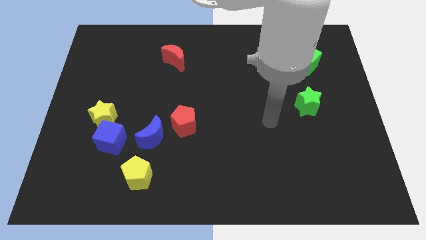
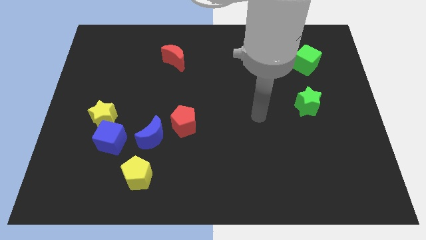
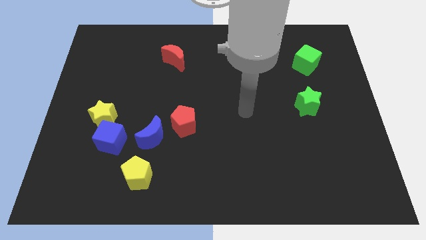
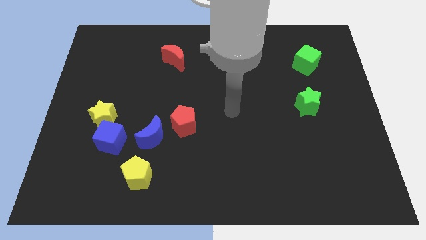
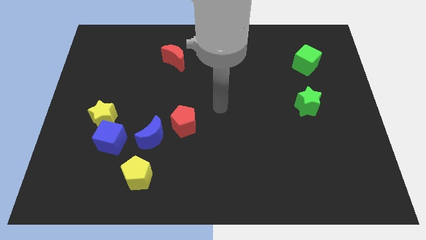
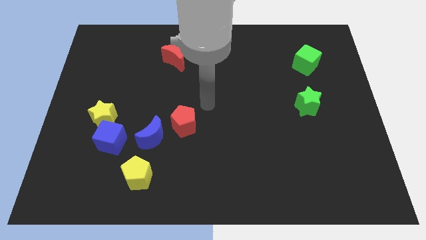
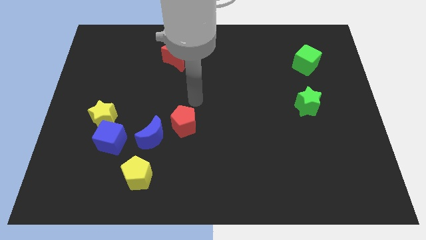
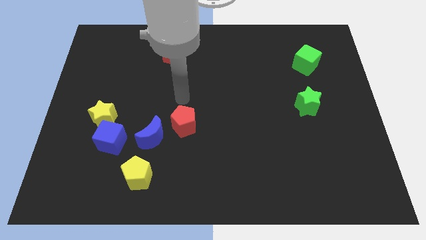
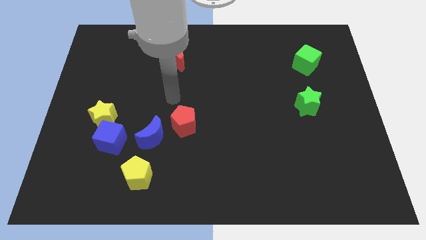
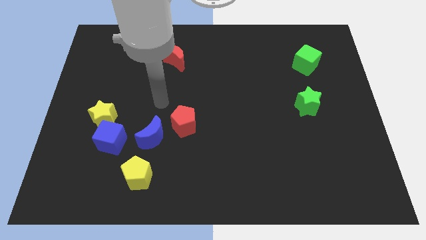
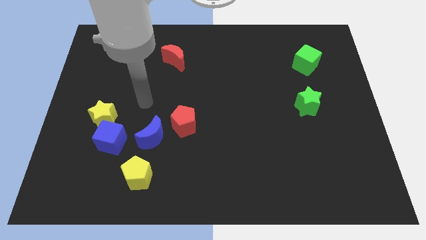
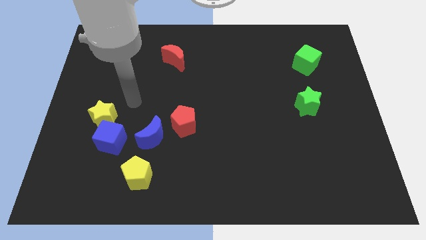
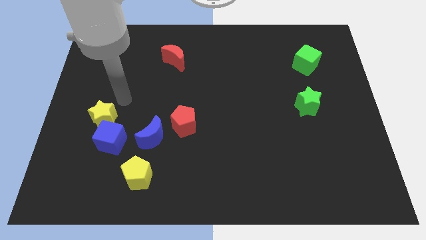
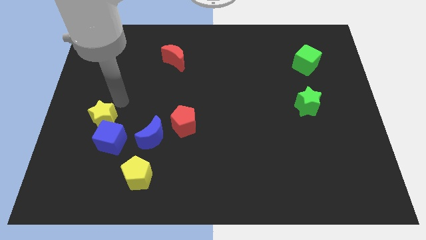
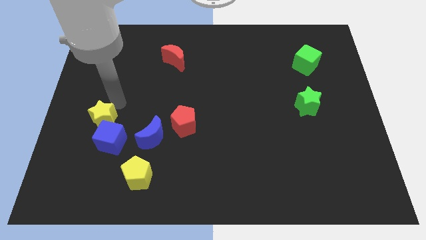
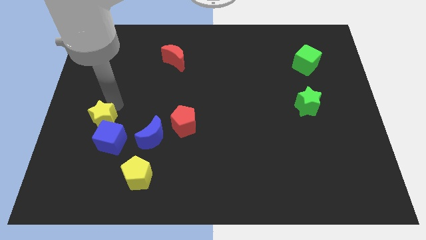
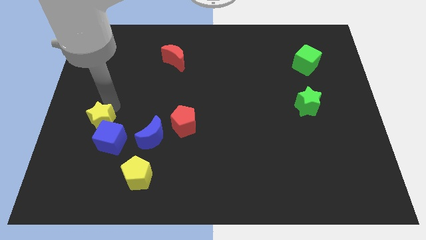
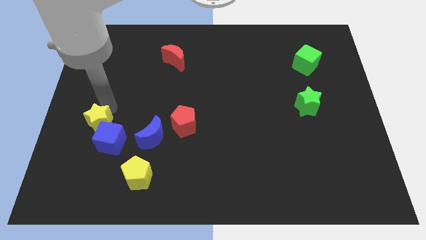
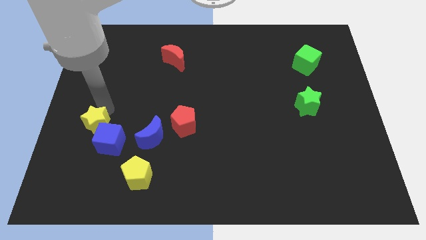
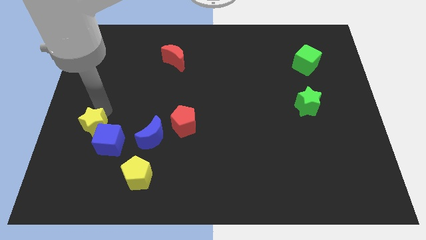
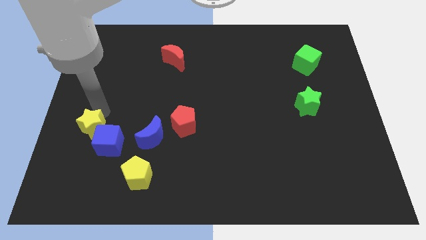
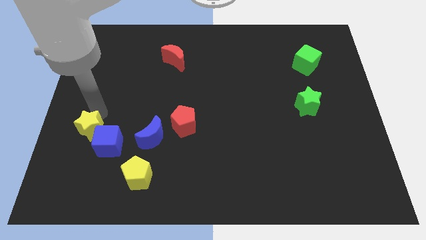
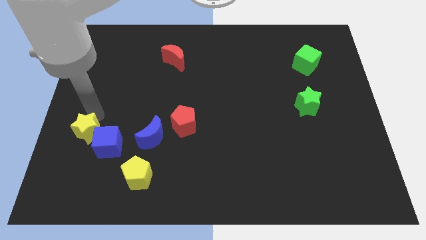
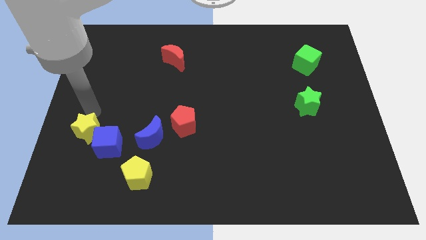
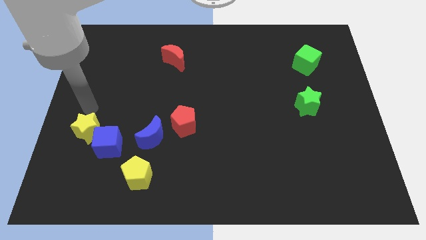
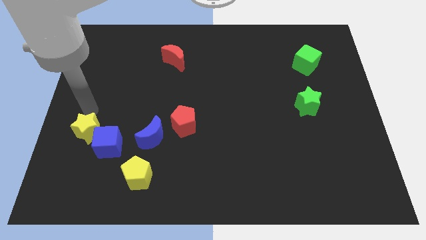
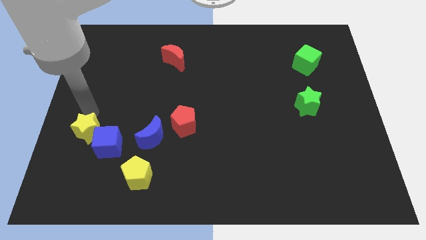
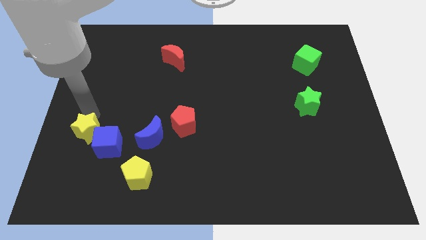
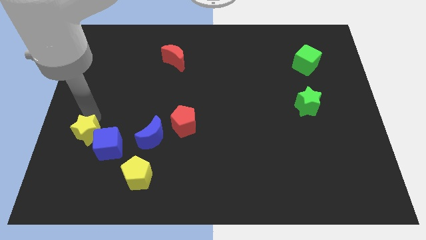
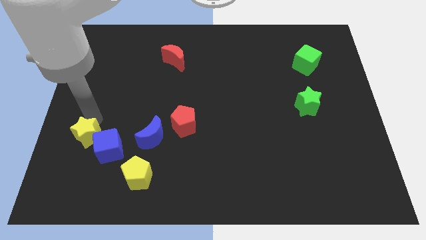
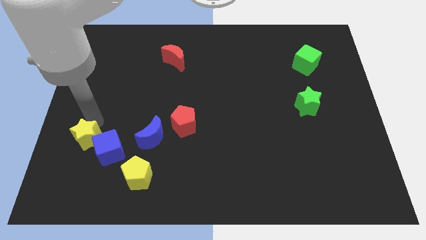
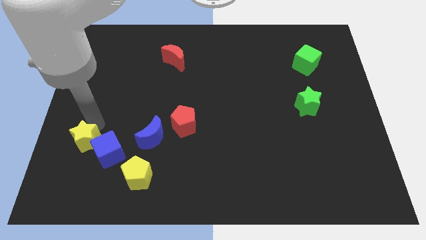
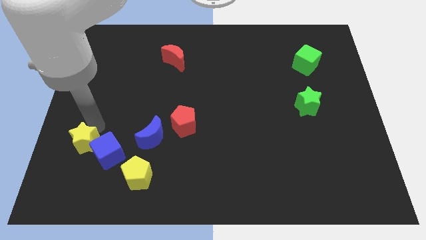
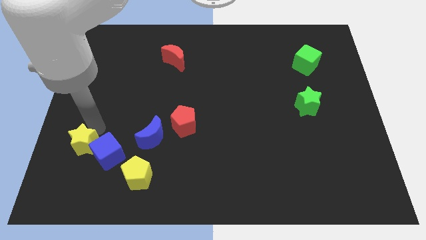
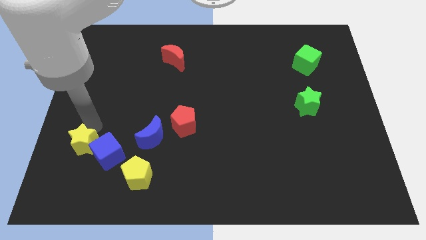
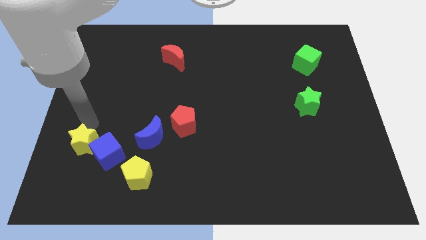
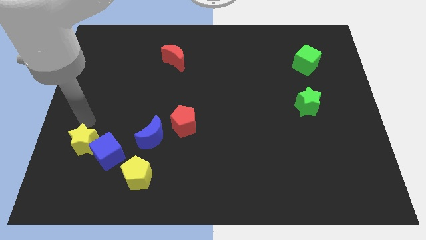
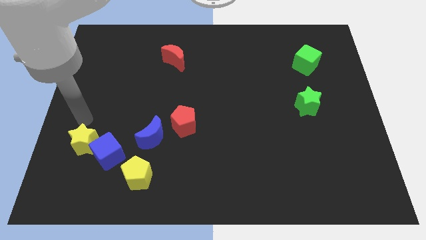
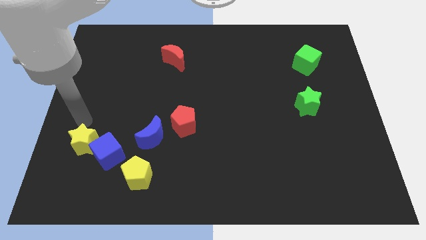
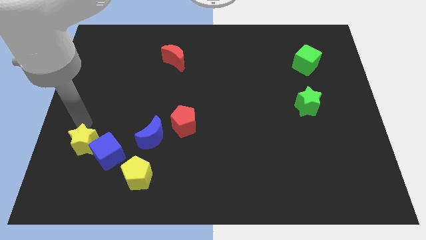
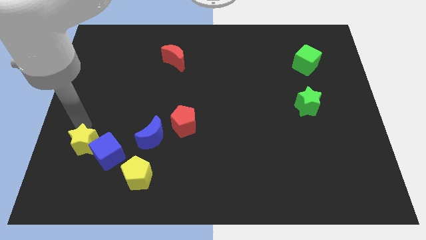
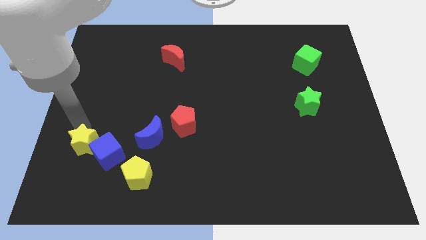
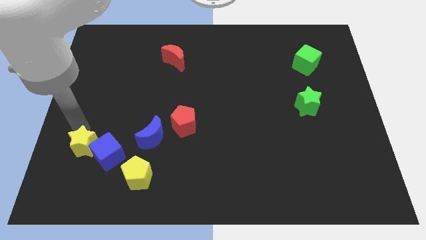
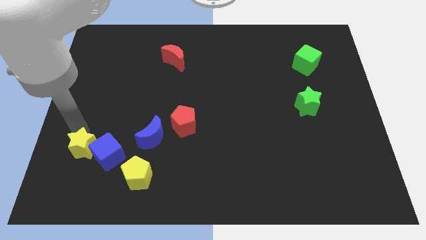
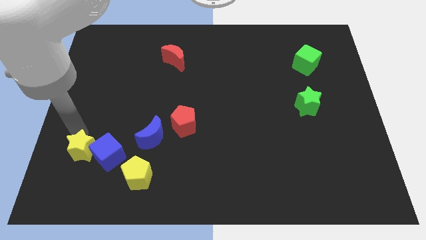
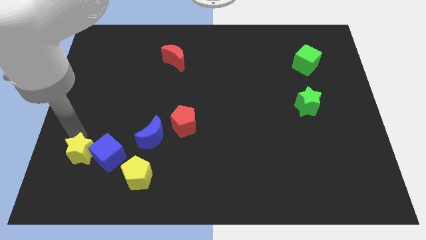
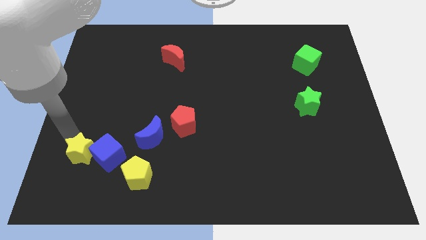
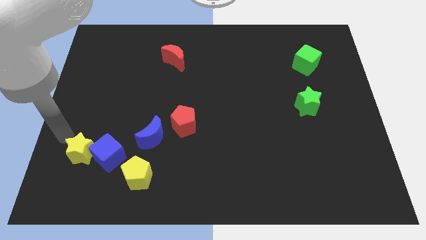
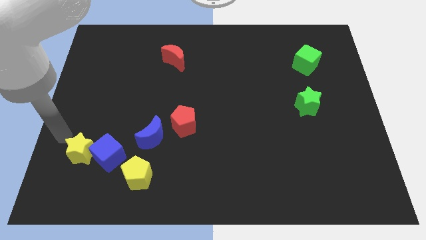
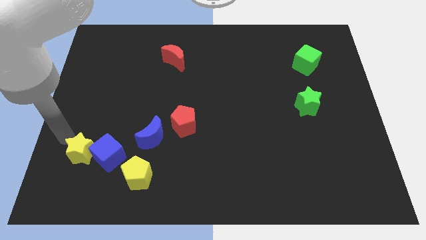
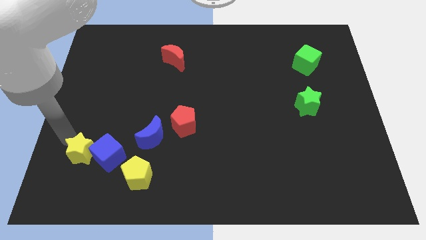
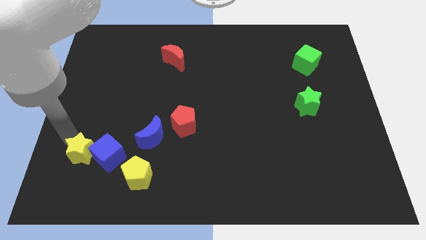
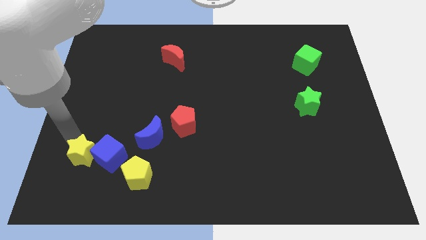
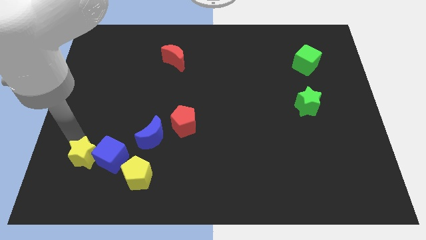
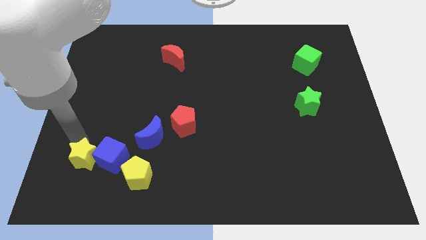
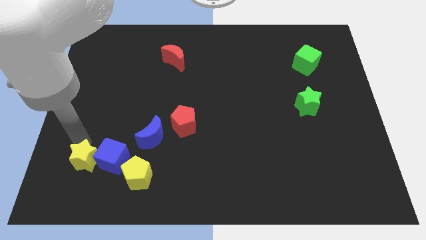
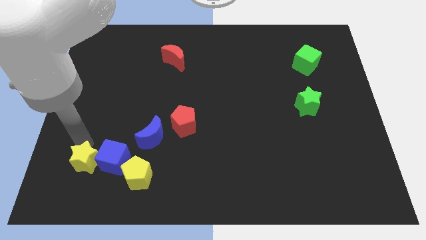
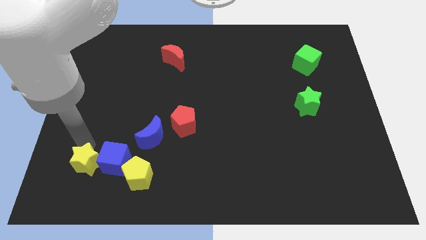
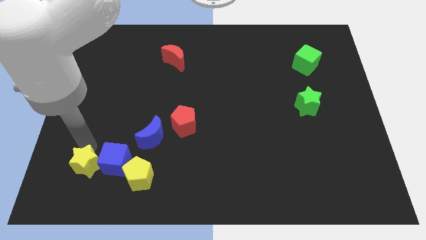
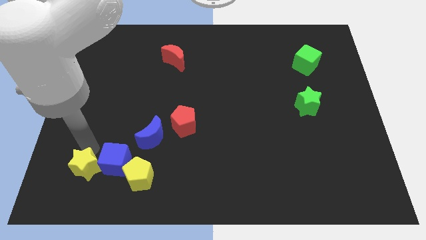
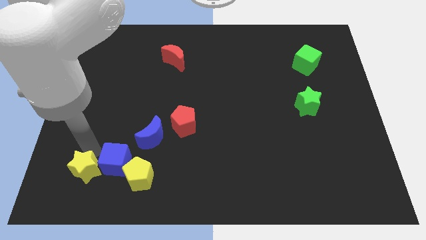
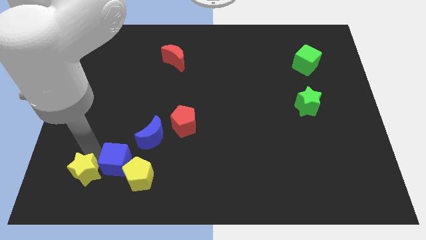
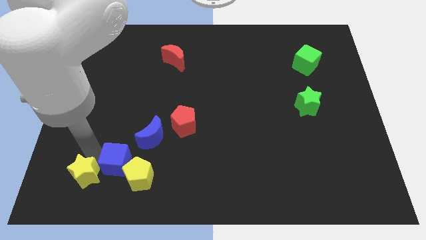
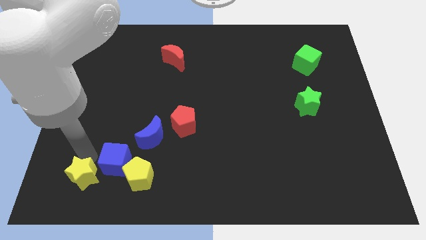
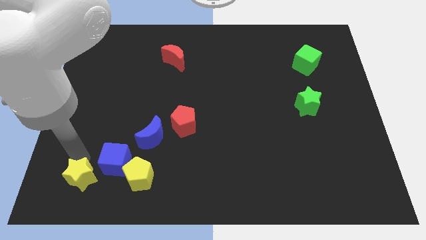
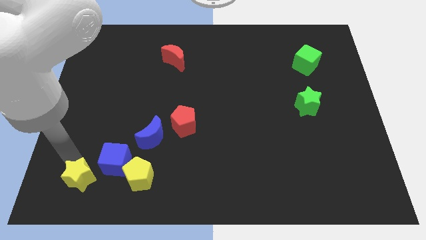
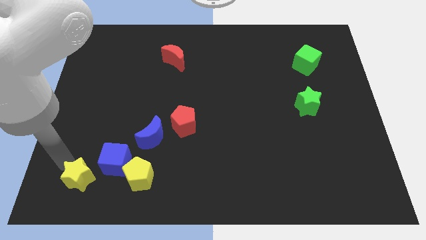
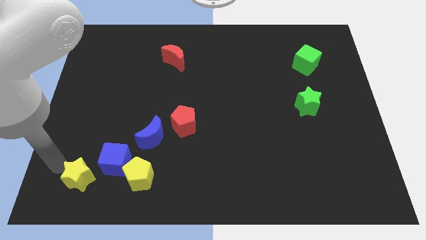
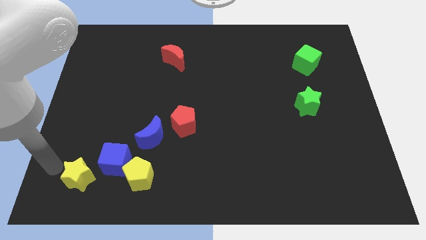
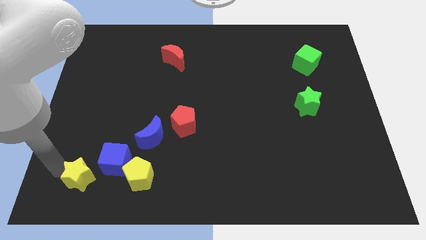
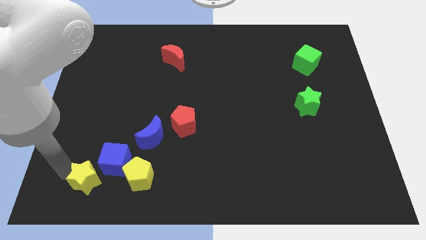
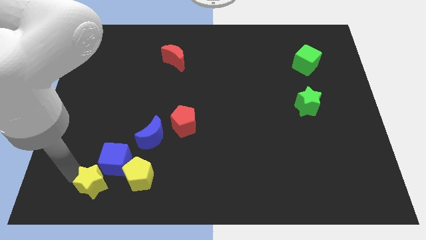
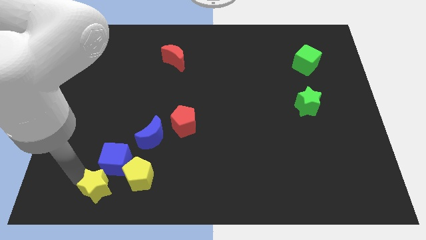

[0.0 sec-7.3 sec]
move the yellow star slightly downwards and then right

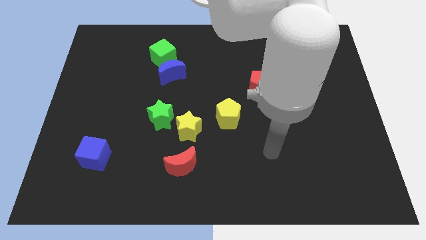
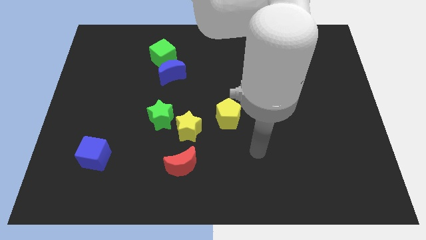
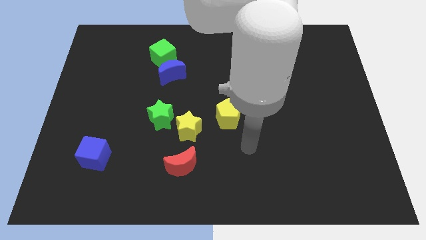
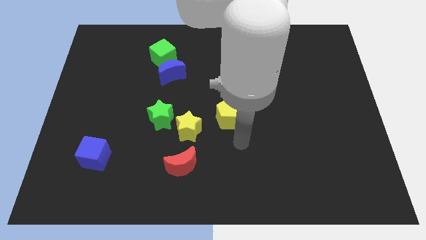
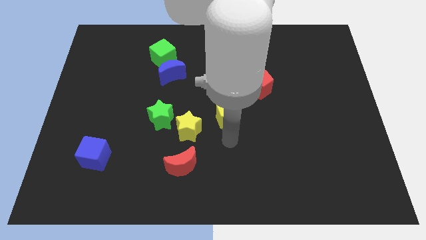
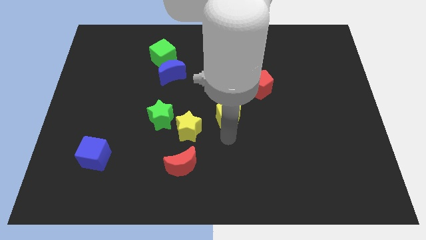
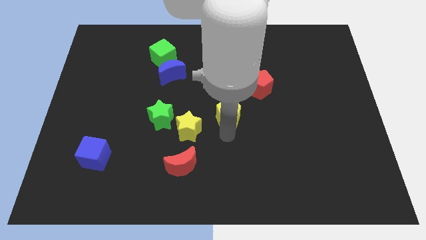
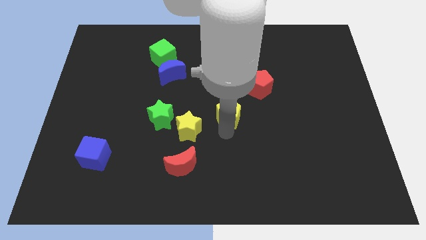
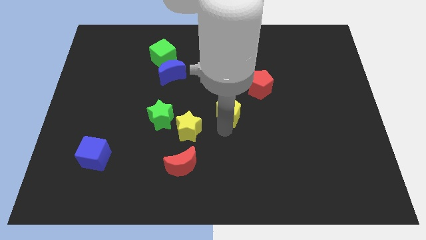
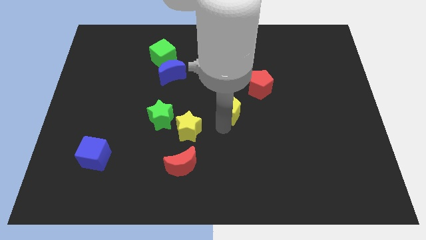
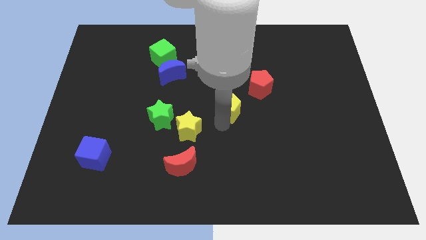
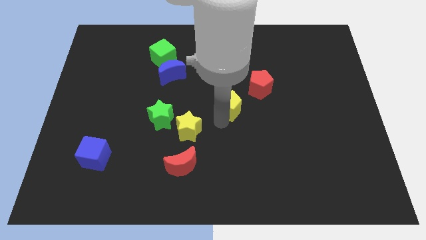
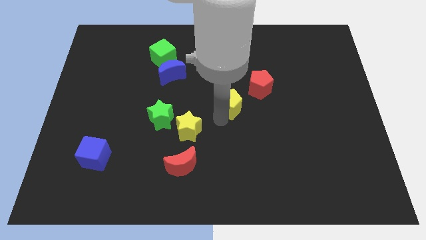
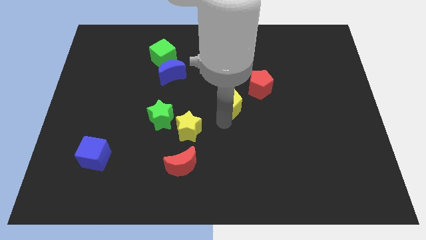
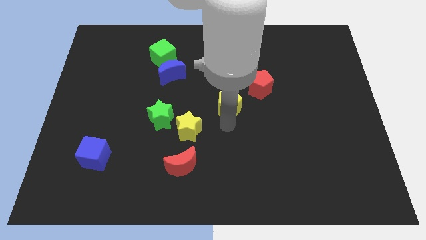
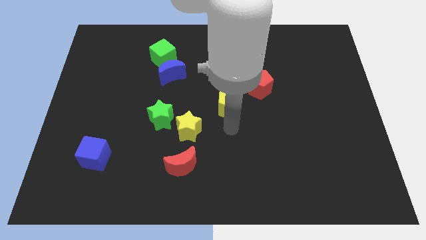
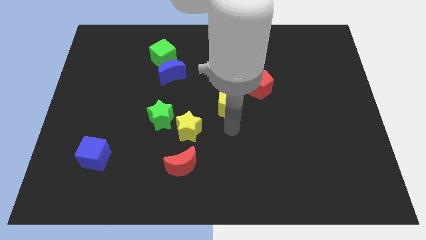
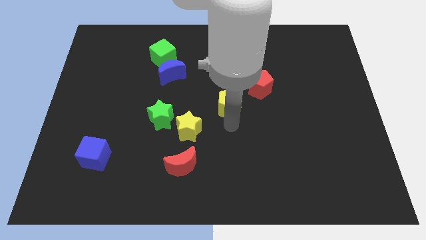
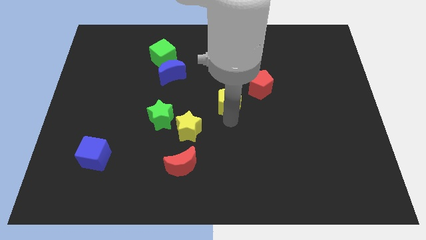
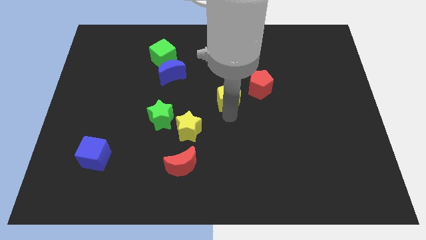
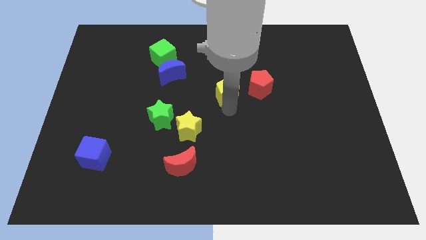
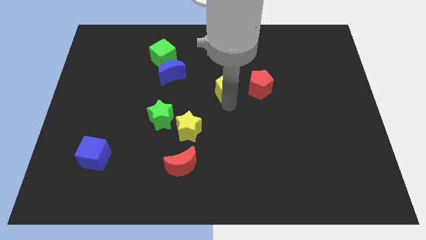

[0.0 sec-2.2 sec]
slightly slide the yellow pentagon up
